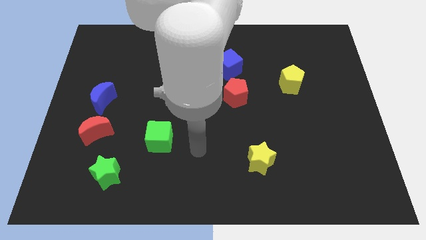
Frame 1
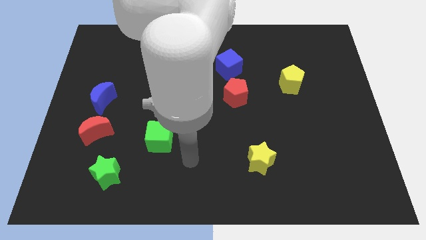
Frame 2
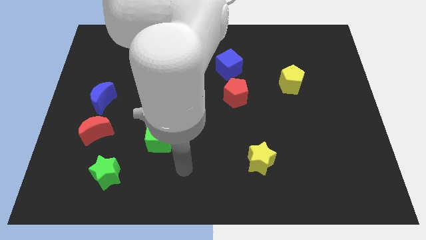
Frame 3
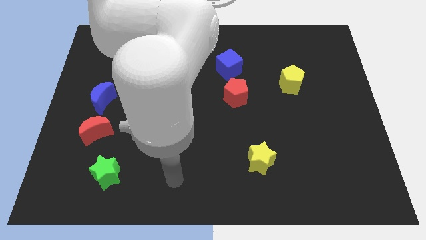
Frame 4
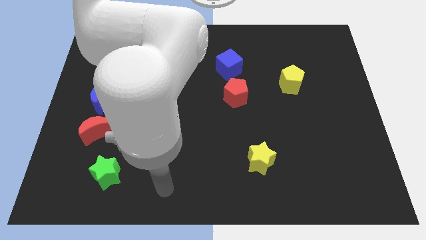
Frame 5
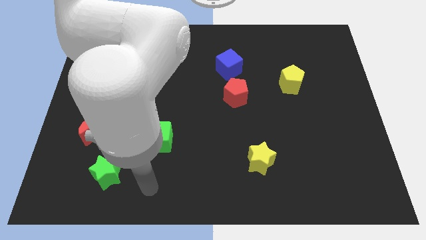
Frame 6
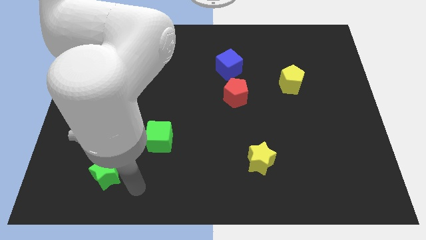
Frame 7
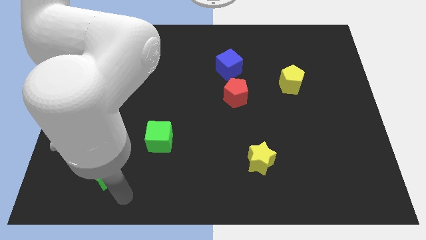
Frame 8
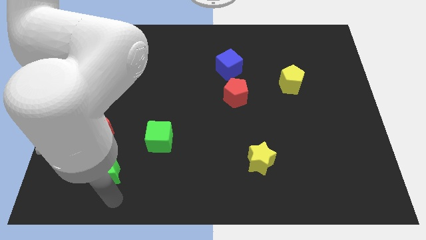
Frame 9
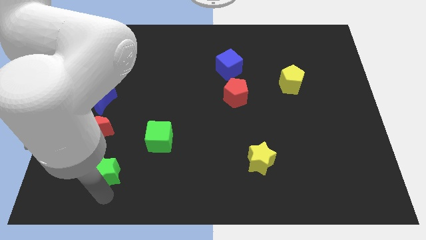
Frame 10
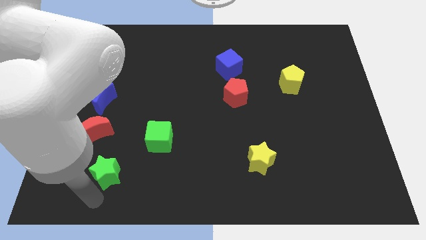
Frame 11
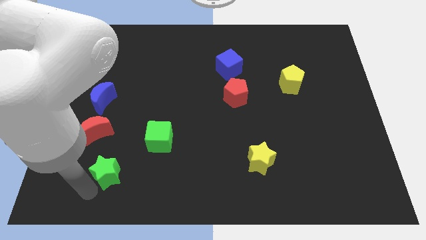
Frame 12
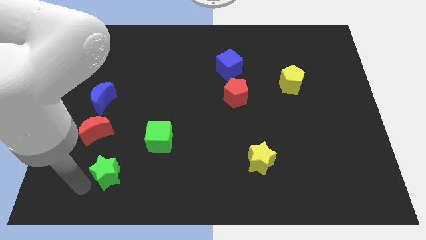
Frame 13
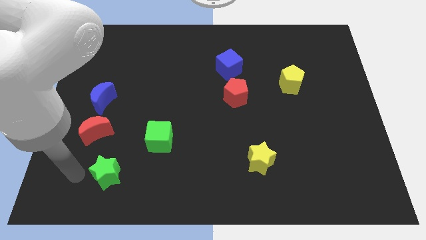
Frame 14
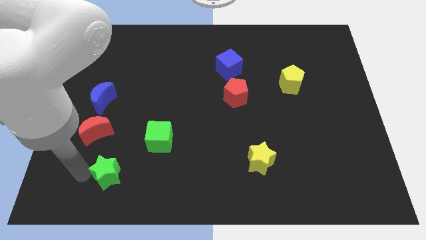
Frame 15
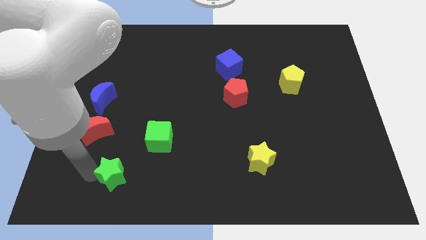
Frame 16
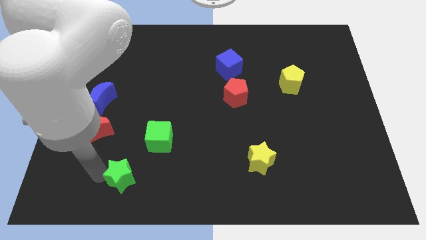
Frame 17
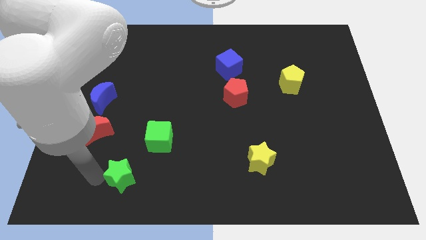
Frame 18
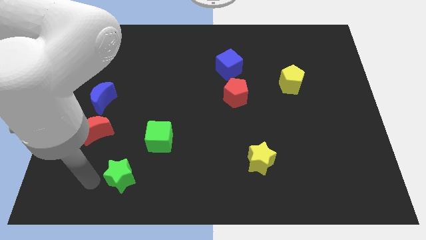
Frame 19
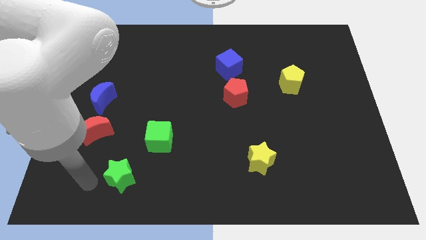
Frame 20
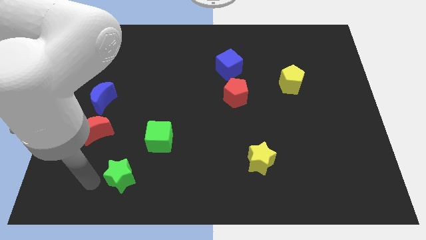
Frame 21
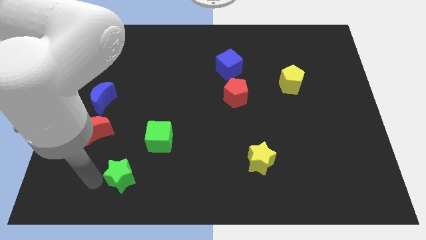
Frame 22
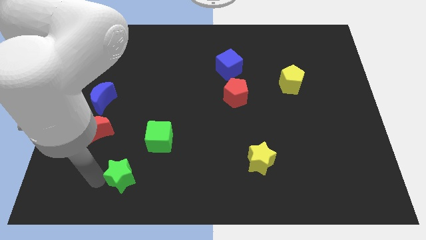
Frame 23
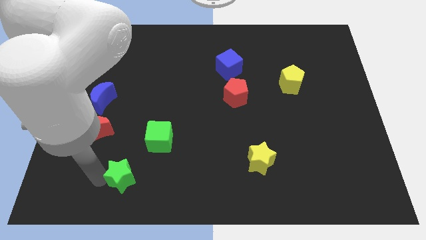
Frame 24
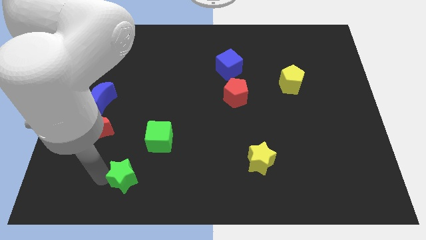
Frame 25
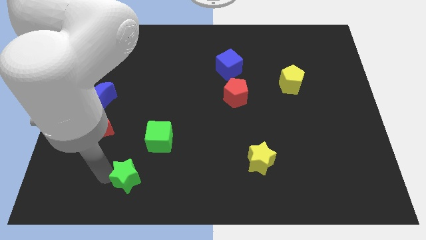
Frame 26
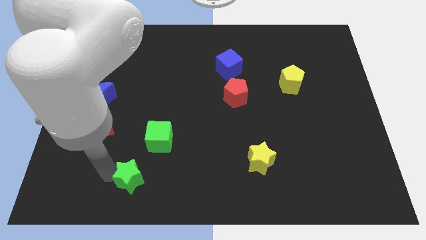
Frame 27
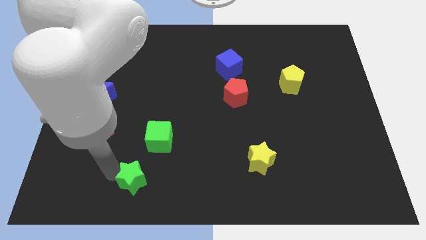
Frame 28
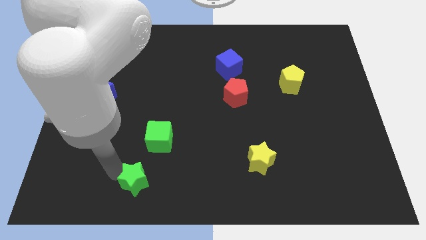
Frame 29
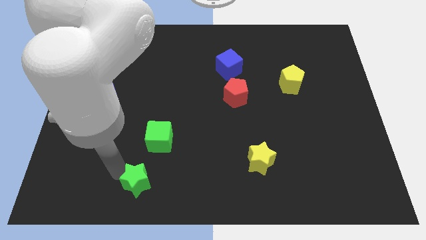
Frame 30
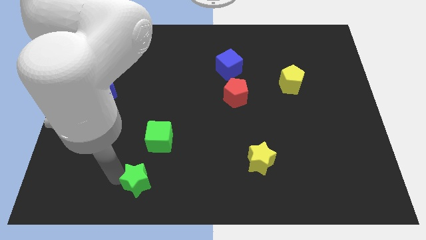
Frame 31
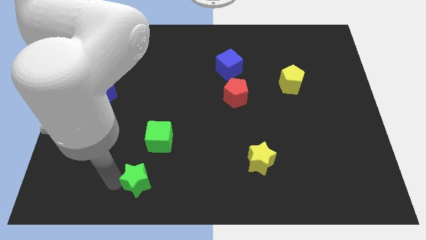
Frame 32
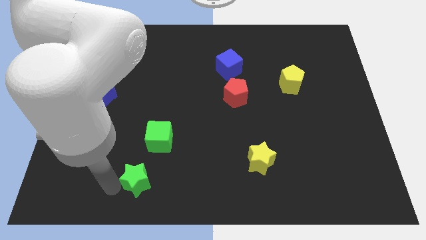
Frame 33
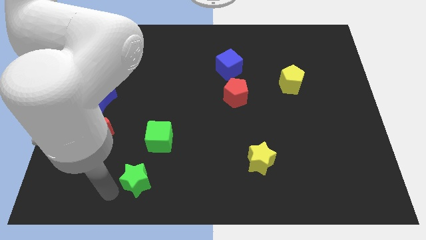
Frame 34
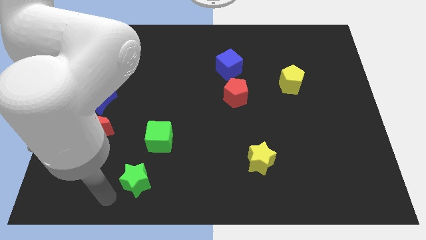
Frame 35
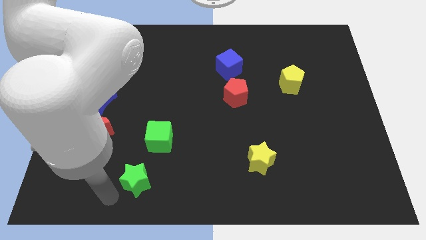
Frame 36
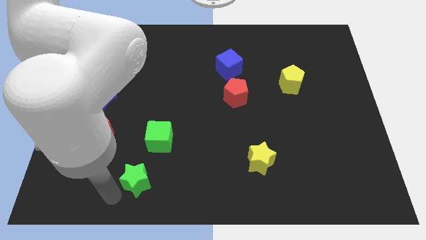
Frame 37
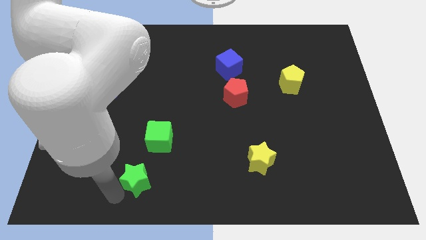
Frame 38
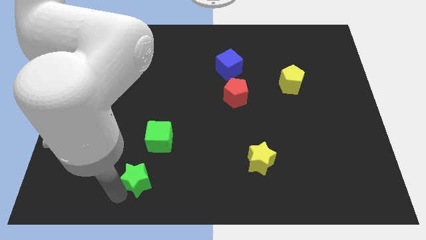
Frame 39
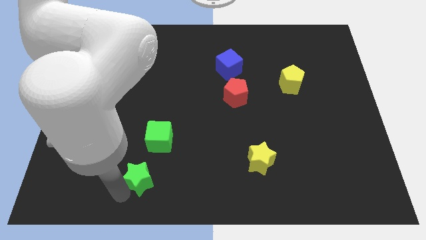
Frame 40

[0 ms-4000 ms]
push the green star a little bit right

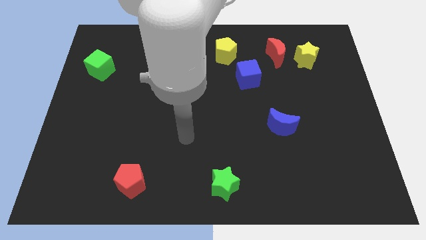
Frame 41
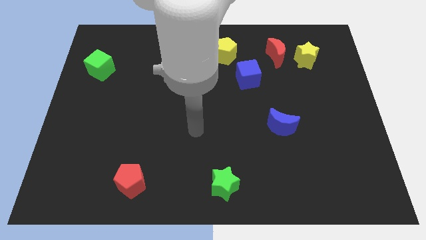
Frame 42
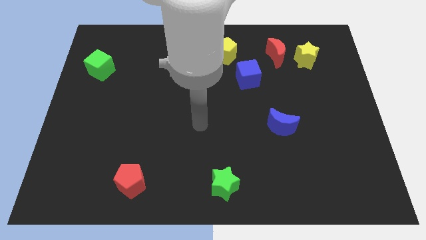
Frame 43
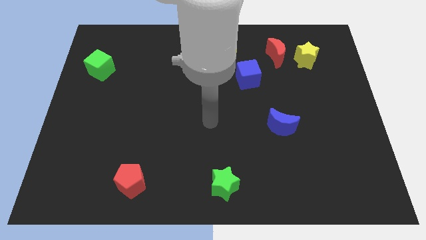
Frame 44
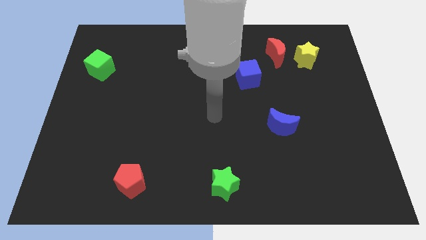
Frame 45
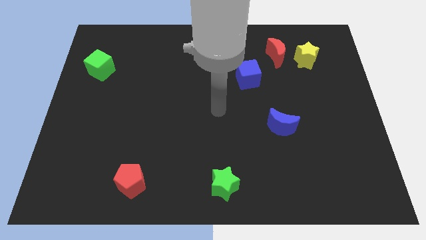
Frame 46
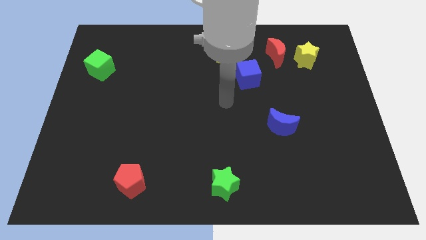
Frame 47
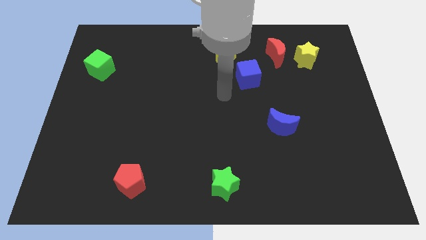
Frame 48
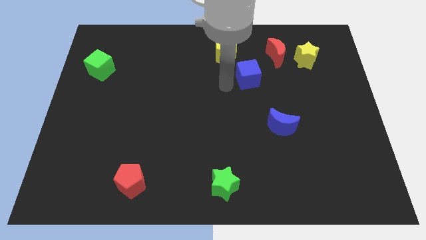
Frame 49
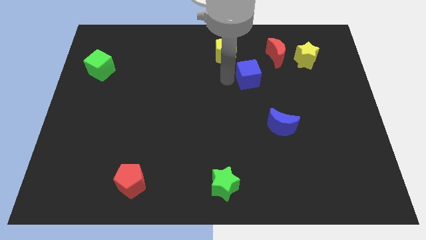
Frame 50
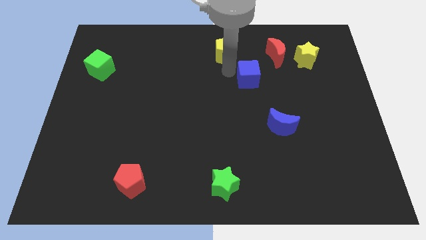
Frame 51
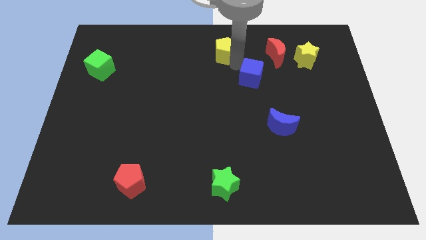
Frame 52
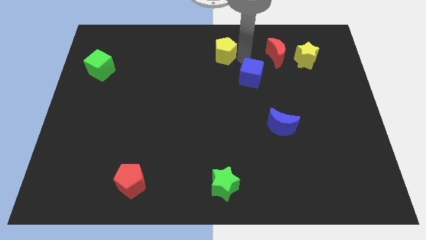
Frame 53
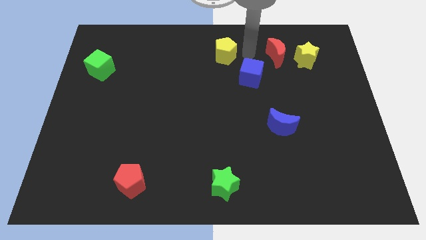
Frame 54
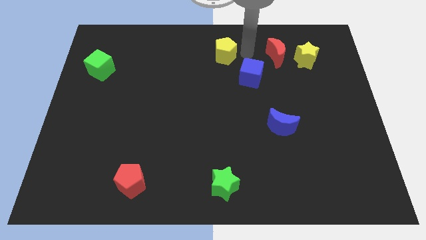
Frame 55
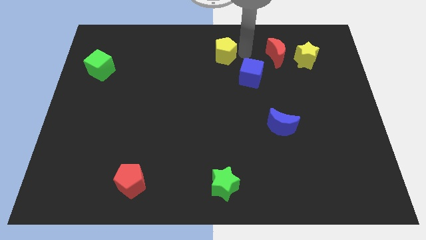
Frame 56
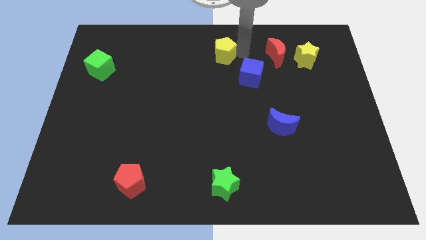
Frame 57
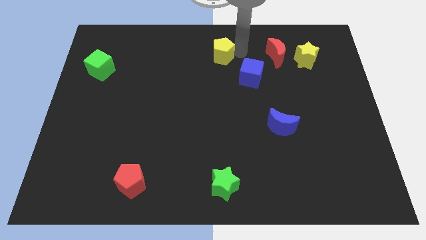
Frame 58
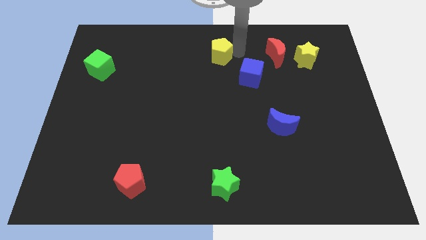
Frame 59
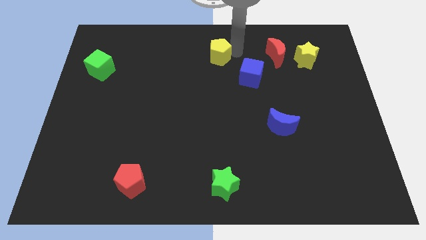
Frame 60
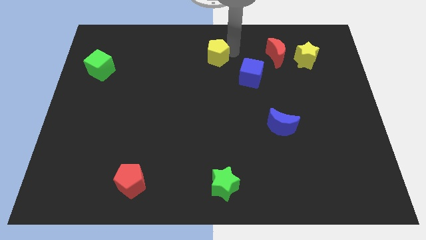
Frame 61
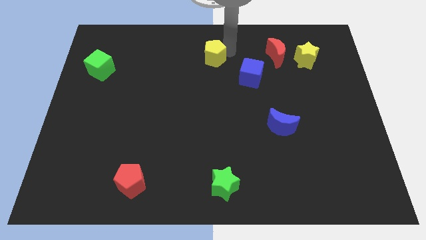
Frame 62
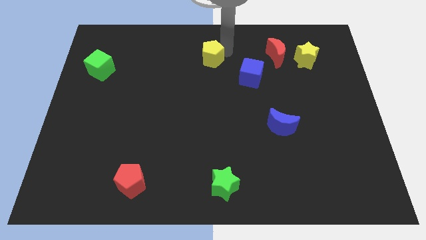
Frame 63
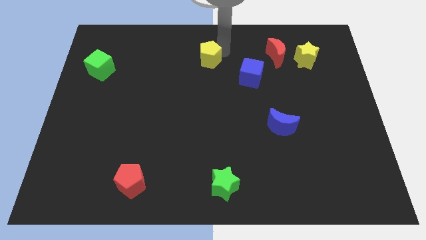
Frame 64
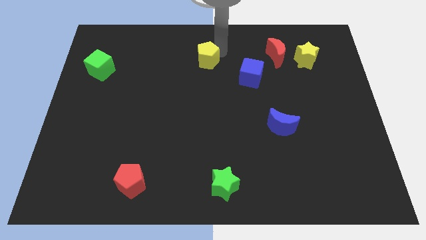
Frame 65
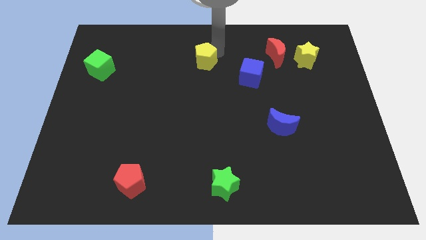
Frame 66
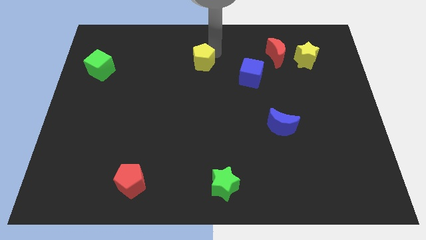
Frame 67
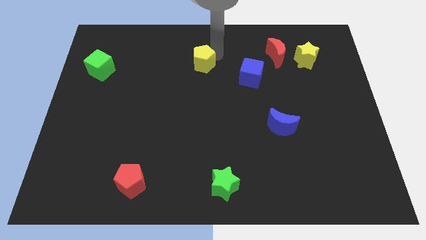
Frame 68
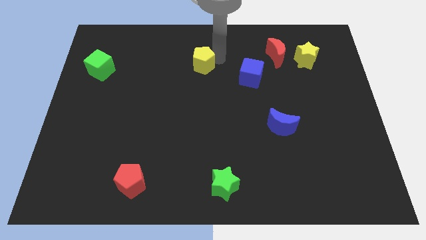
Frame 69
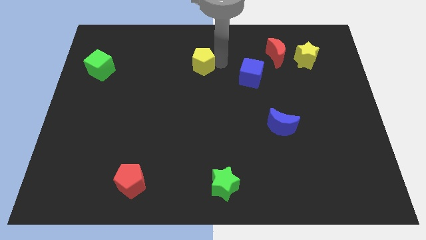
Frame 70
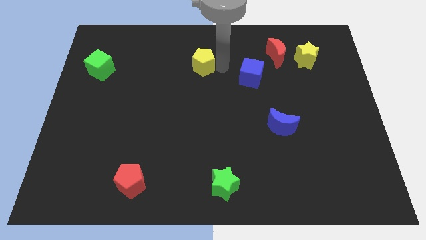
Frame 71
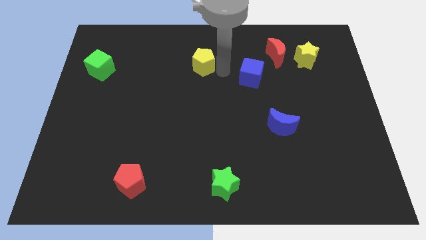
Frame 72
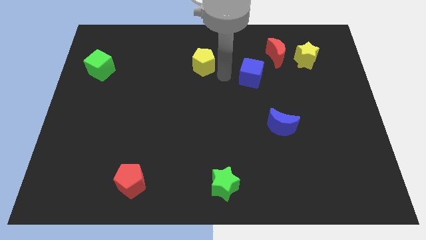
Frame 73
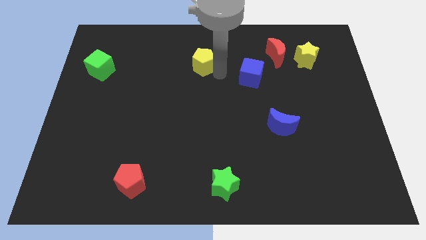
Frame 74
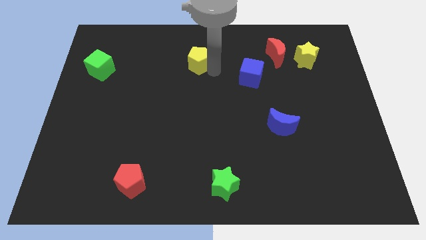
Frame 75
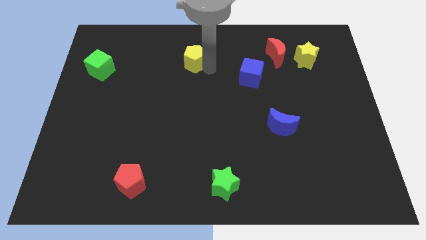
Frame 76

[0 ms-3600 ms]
move the yellow pentagon a little to the left
